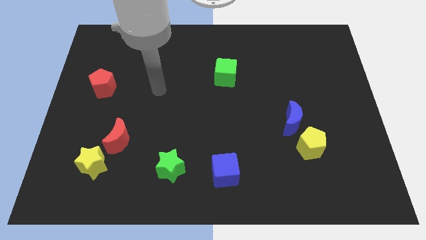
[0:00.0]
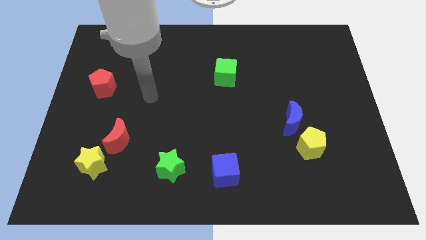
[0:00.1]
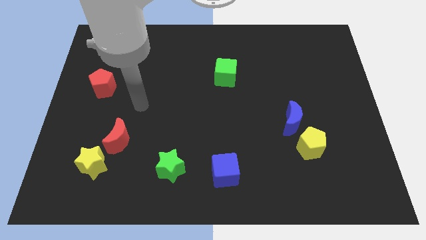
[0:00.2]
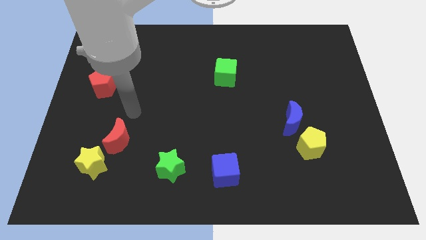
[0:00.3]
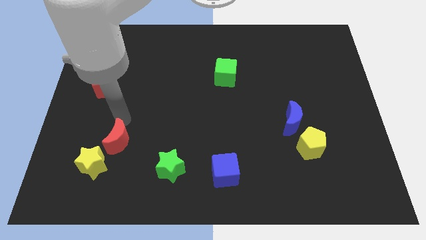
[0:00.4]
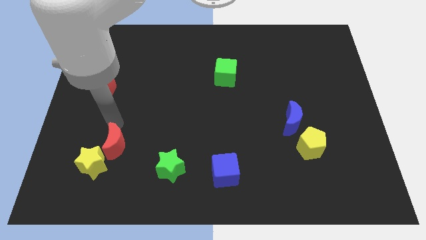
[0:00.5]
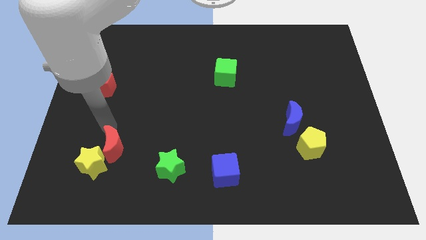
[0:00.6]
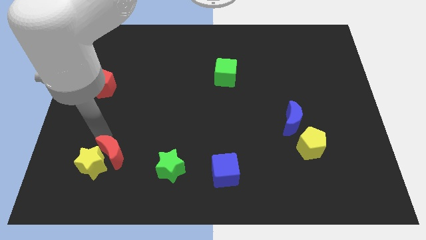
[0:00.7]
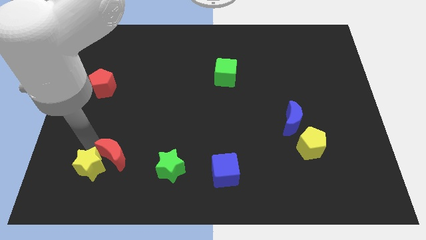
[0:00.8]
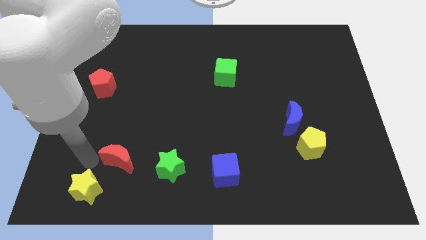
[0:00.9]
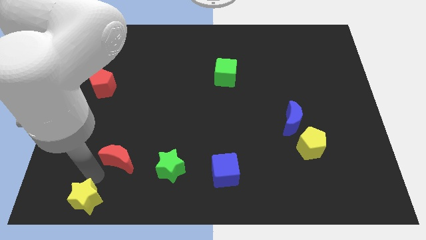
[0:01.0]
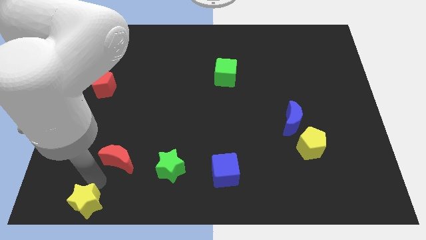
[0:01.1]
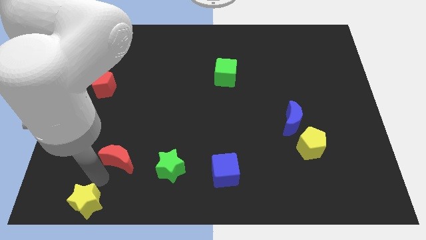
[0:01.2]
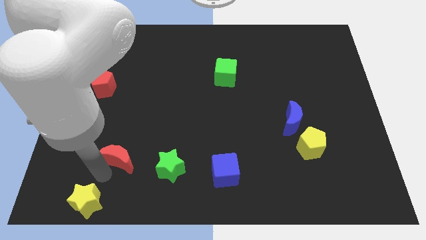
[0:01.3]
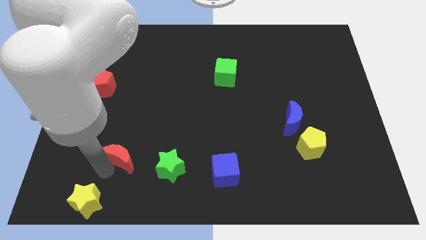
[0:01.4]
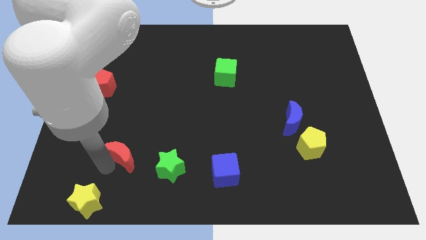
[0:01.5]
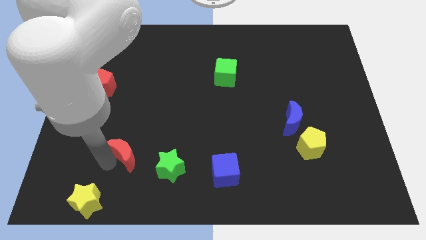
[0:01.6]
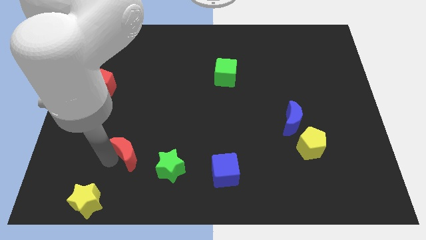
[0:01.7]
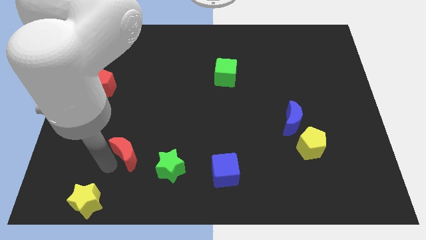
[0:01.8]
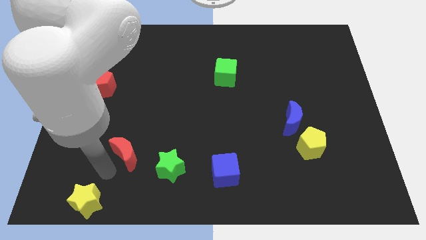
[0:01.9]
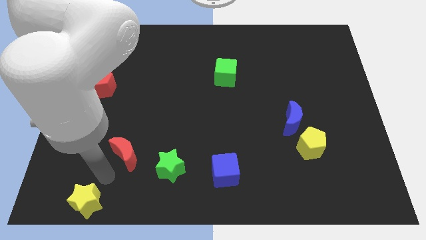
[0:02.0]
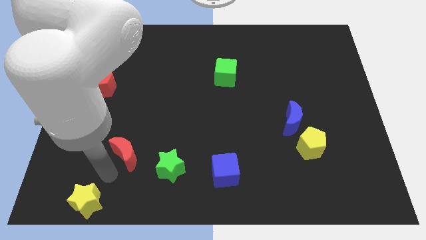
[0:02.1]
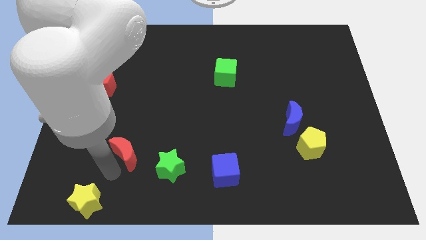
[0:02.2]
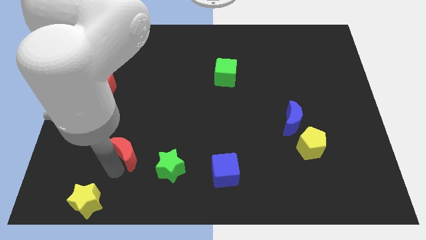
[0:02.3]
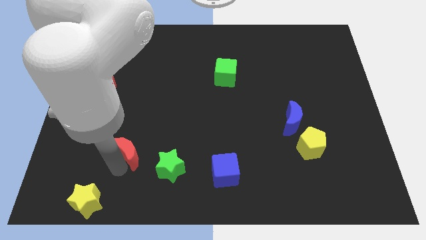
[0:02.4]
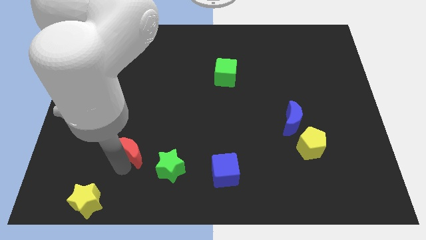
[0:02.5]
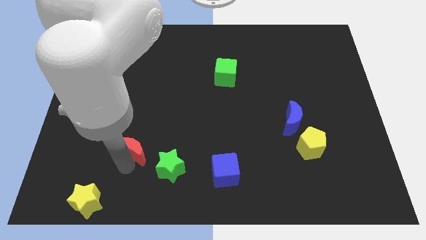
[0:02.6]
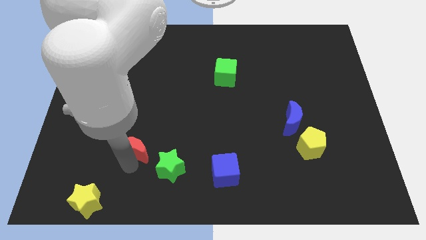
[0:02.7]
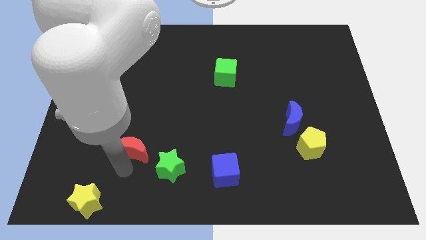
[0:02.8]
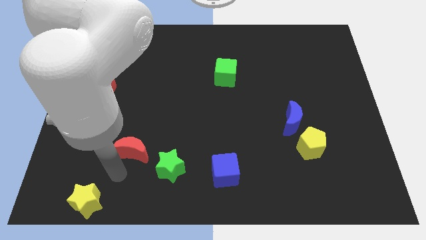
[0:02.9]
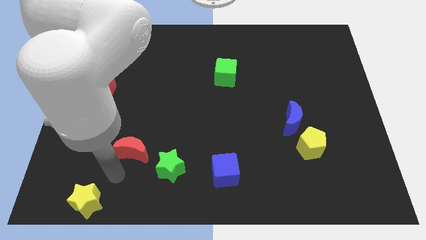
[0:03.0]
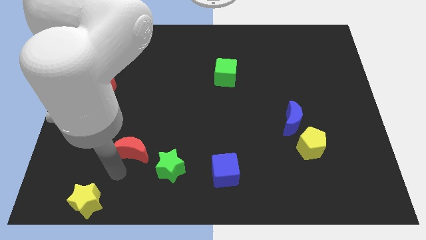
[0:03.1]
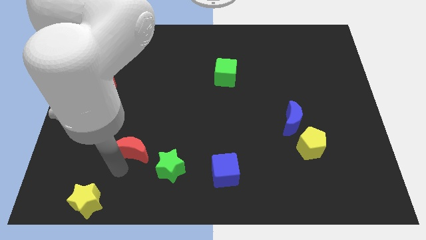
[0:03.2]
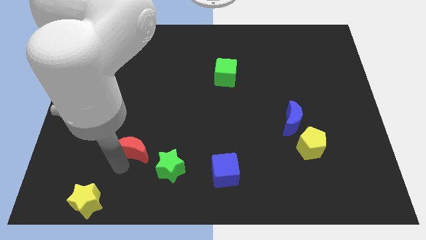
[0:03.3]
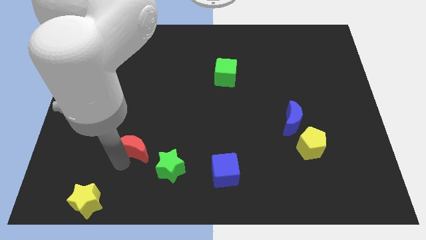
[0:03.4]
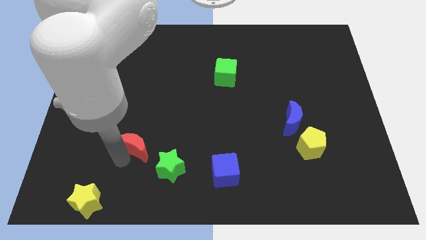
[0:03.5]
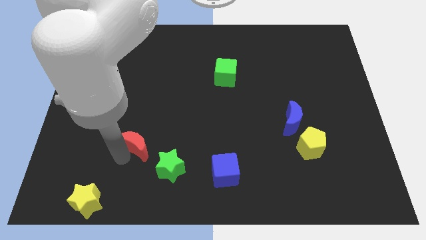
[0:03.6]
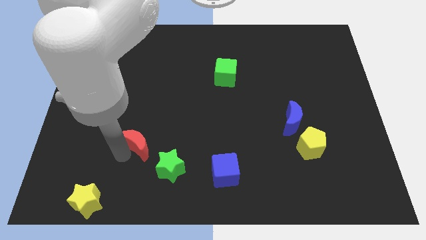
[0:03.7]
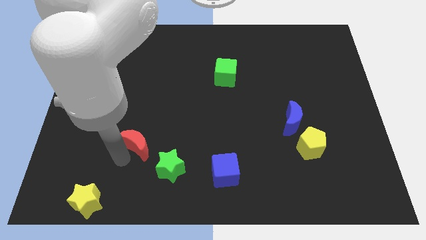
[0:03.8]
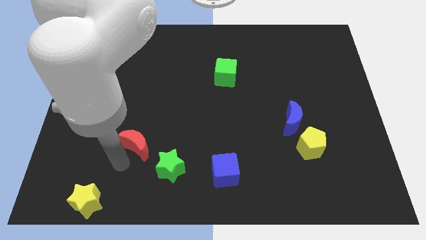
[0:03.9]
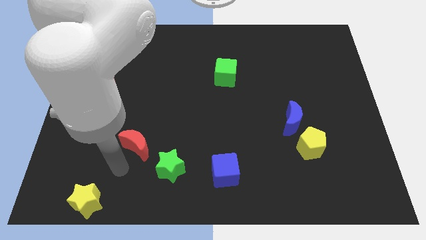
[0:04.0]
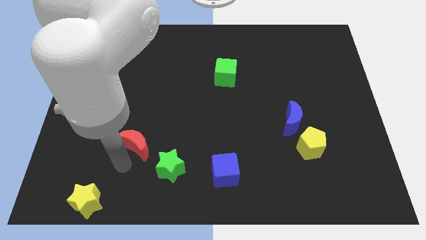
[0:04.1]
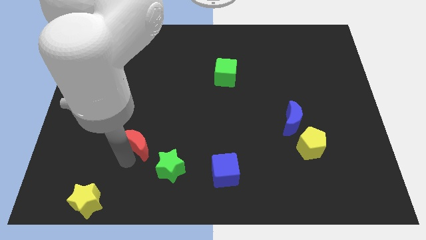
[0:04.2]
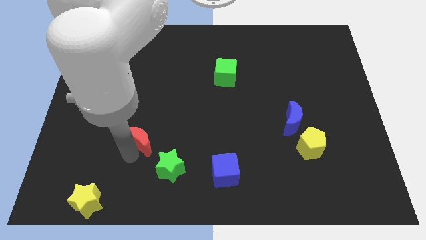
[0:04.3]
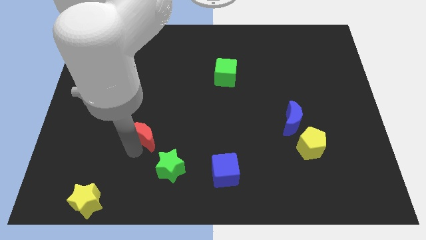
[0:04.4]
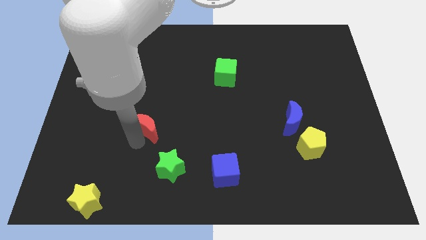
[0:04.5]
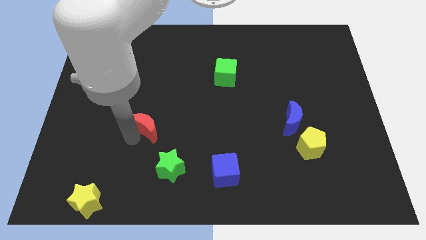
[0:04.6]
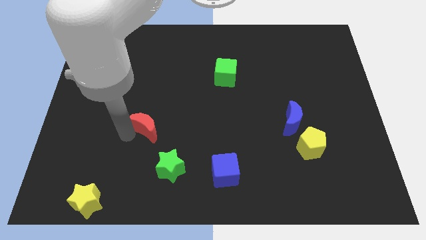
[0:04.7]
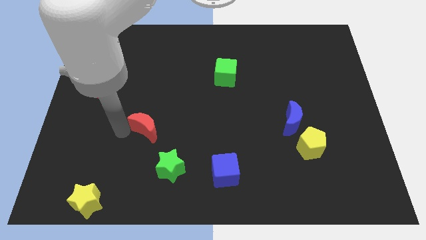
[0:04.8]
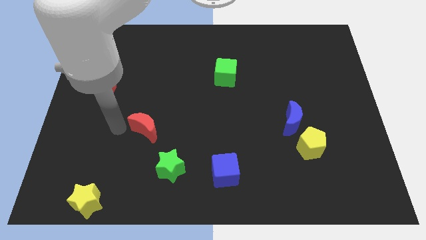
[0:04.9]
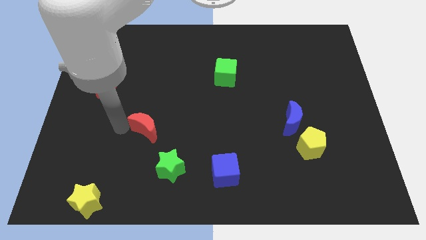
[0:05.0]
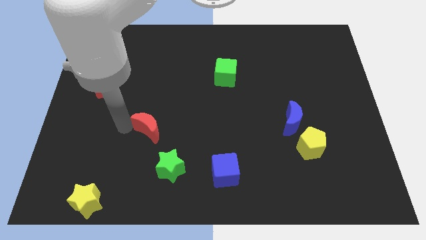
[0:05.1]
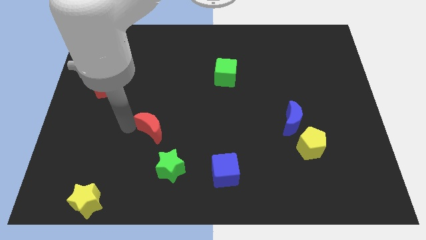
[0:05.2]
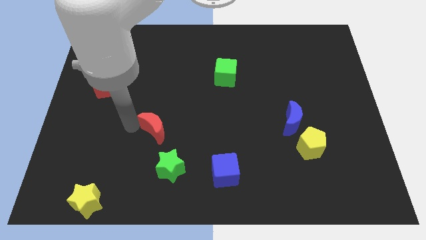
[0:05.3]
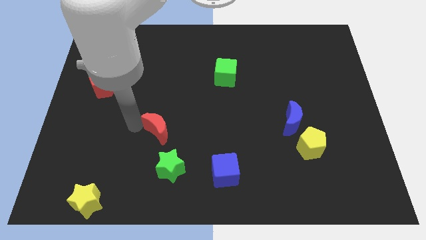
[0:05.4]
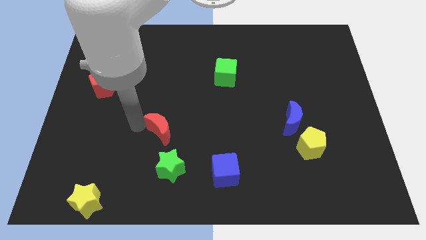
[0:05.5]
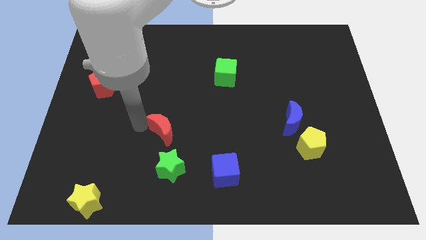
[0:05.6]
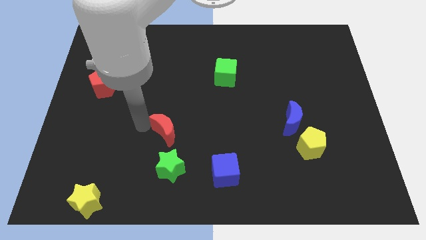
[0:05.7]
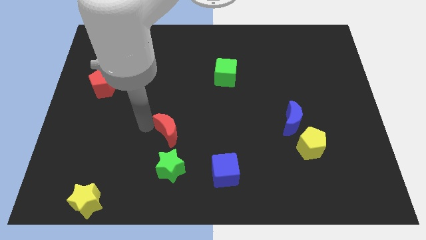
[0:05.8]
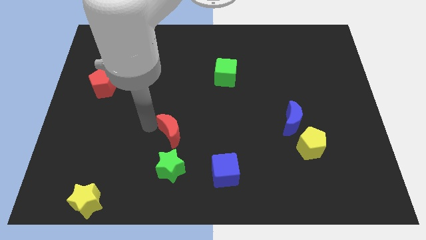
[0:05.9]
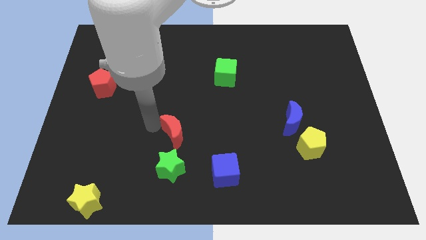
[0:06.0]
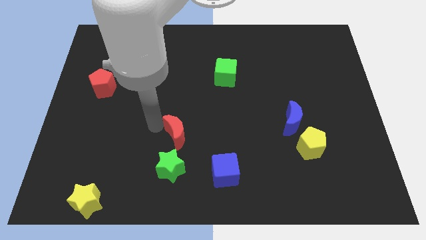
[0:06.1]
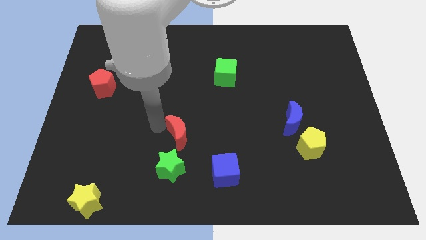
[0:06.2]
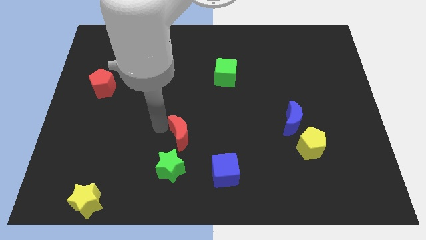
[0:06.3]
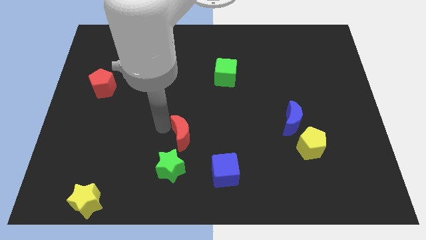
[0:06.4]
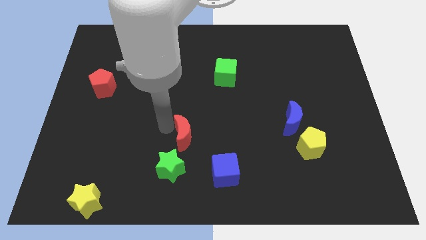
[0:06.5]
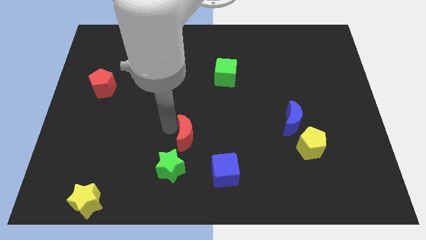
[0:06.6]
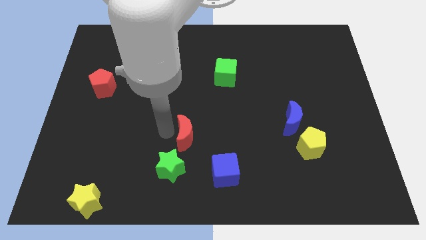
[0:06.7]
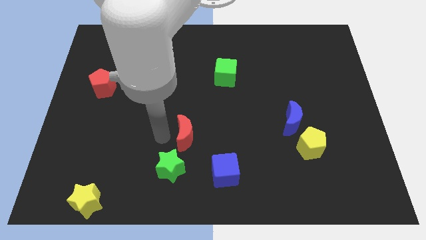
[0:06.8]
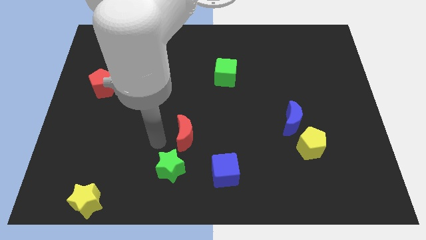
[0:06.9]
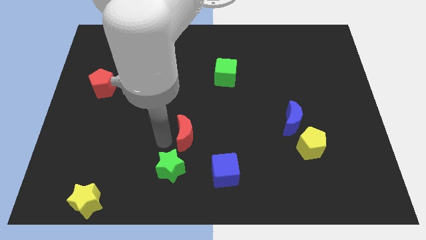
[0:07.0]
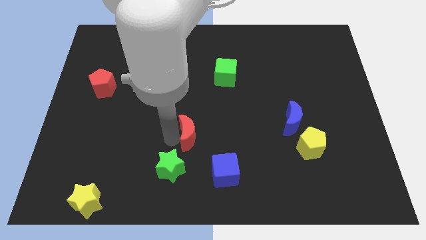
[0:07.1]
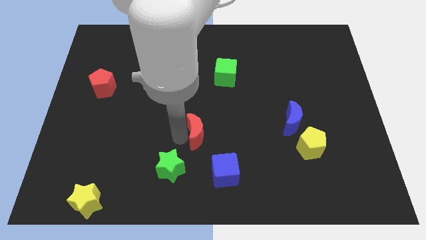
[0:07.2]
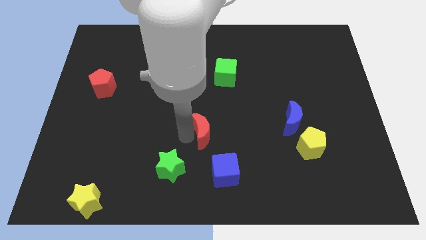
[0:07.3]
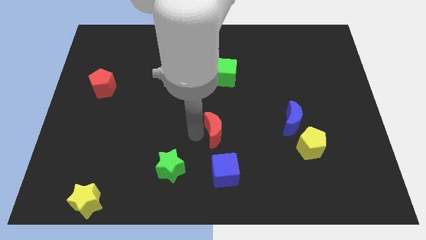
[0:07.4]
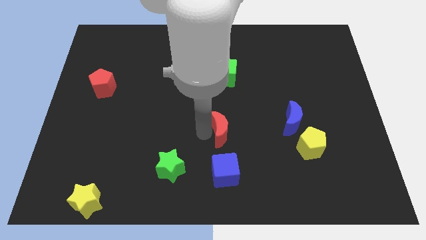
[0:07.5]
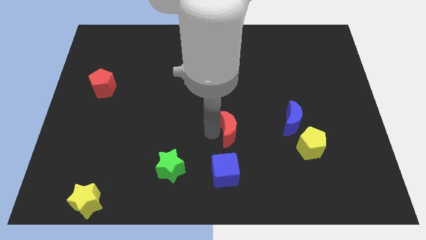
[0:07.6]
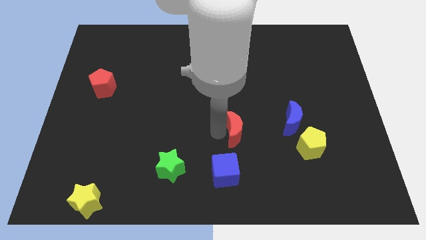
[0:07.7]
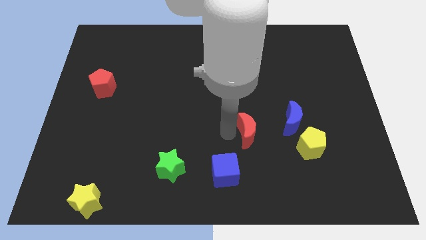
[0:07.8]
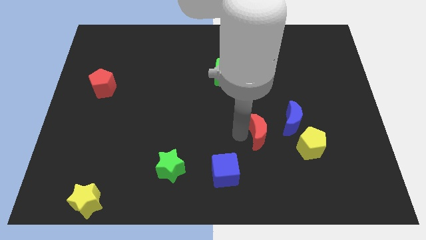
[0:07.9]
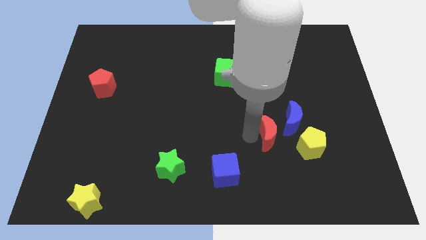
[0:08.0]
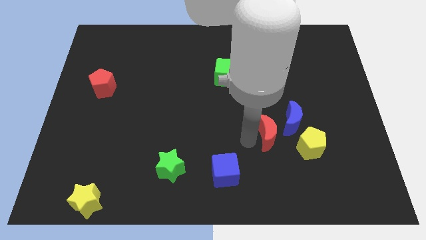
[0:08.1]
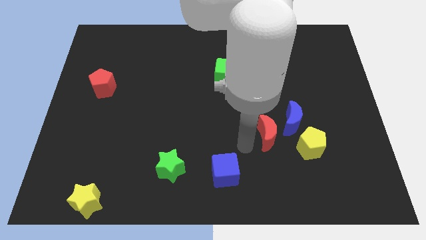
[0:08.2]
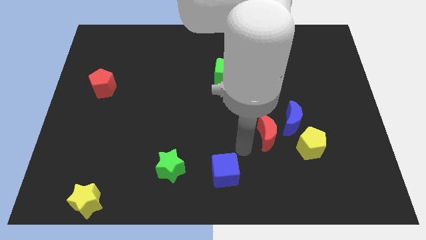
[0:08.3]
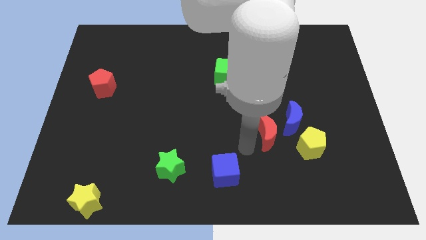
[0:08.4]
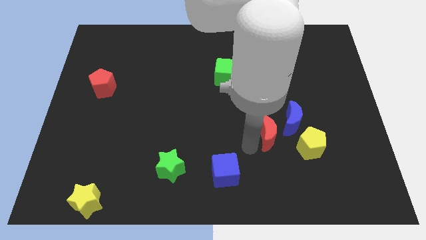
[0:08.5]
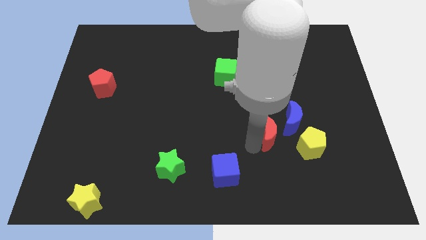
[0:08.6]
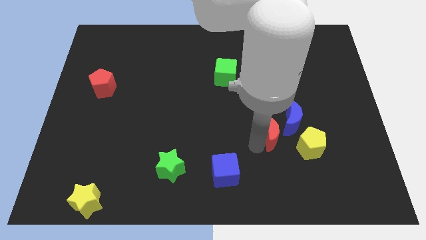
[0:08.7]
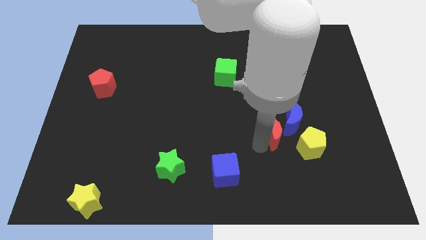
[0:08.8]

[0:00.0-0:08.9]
move the red moon close to the blue moon
